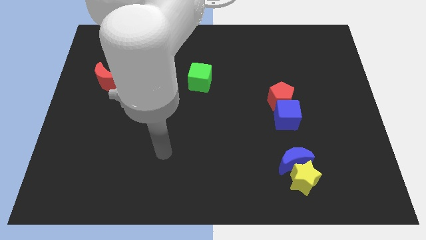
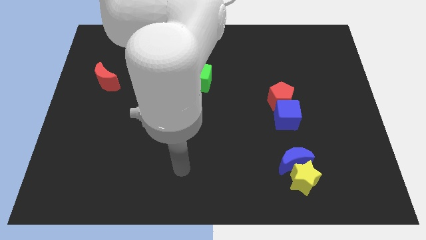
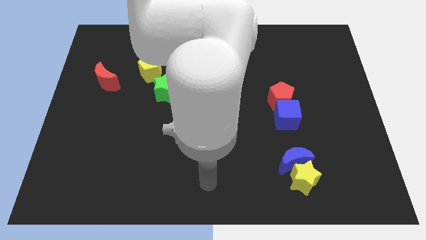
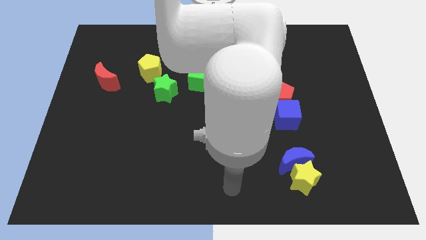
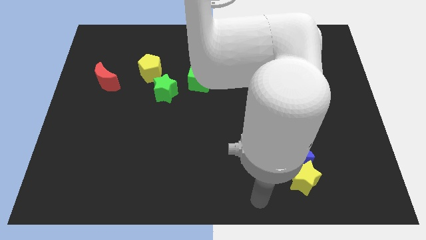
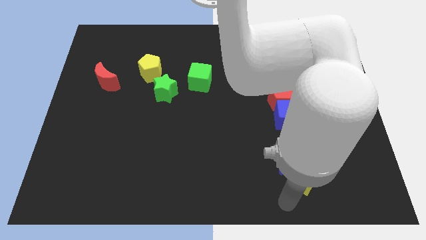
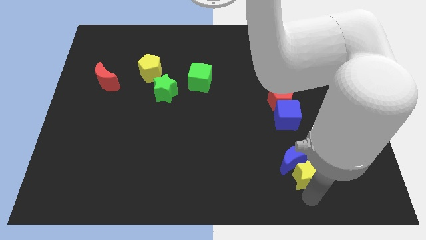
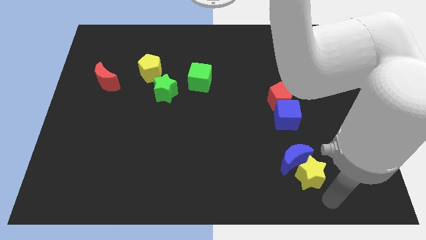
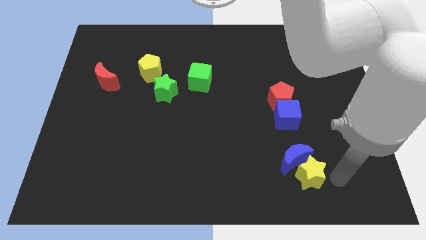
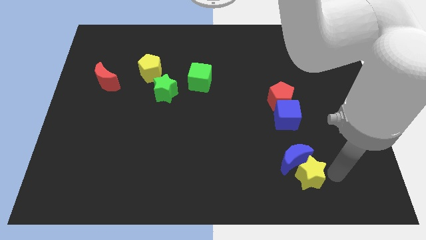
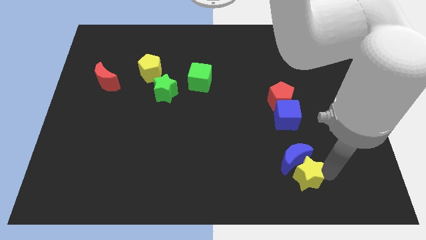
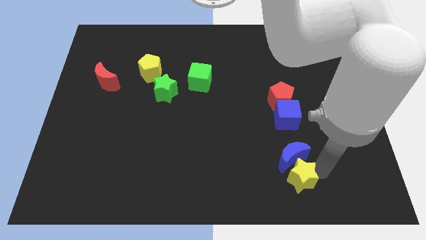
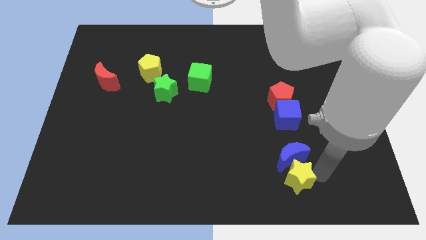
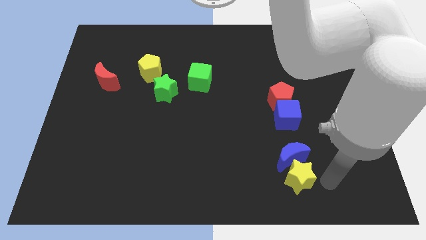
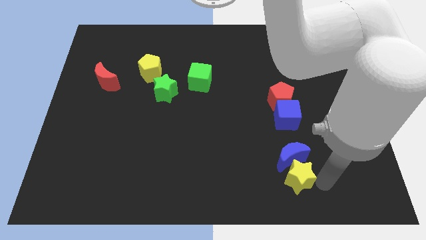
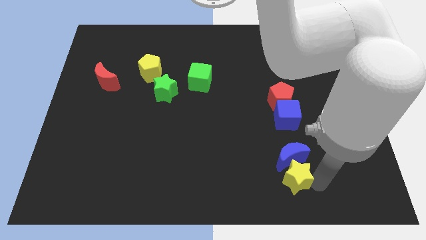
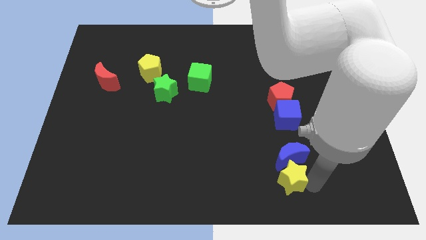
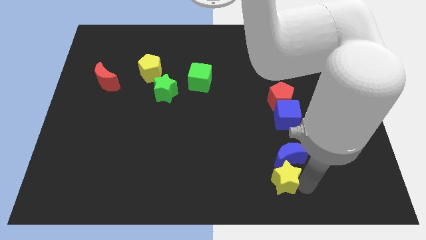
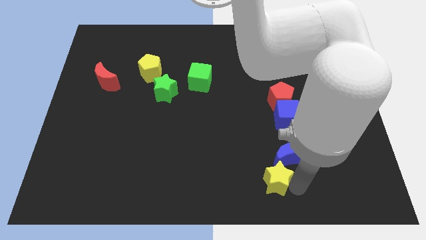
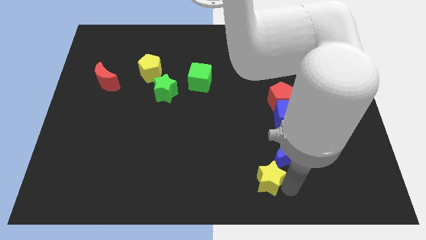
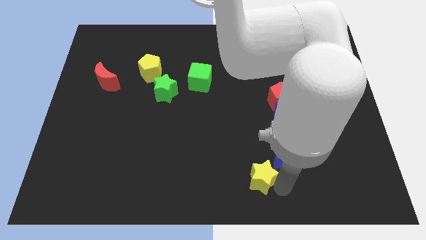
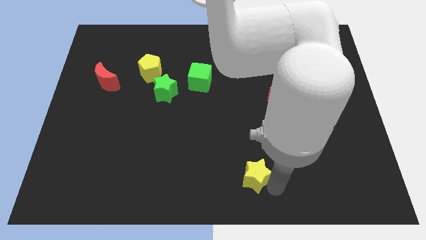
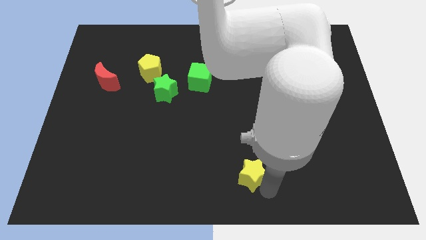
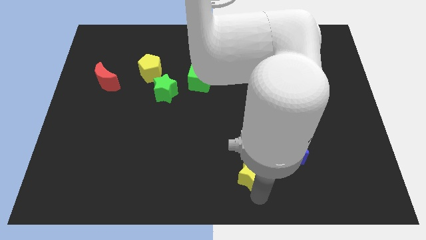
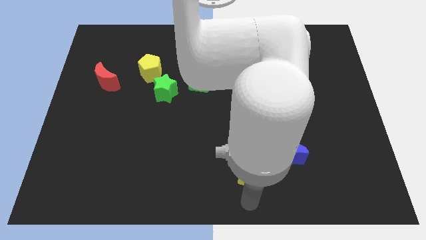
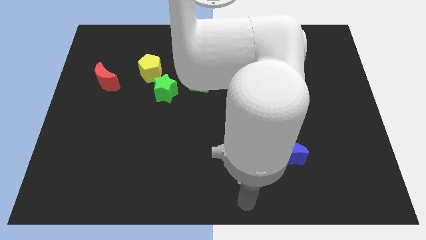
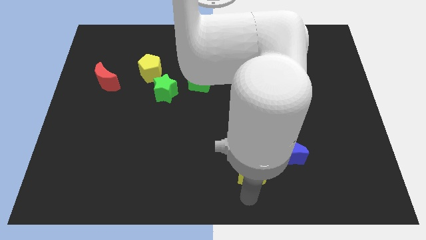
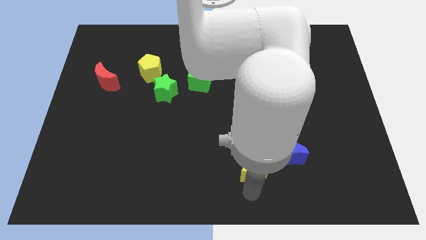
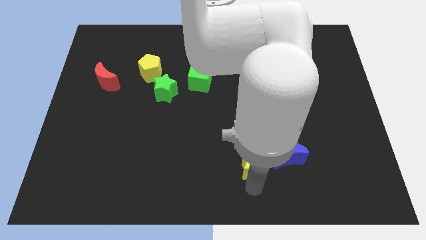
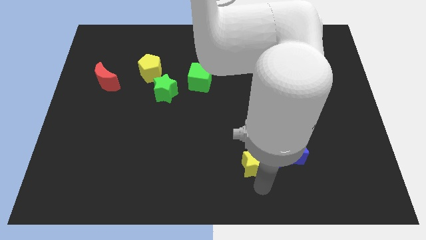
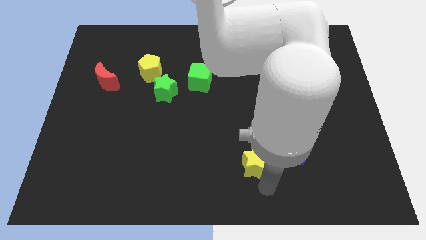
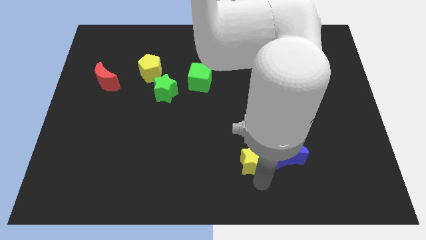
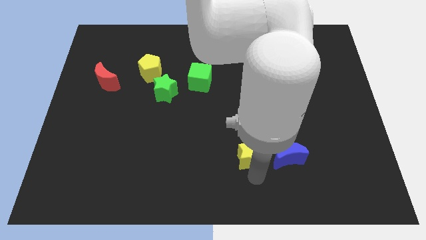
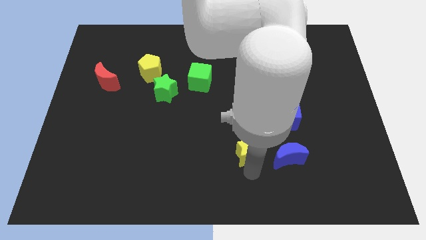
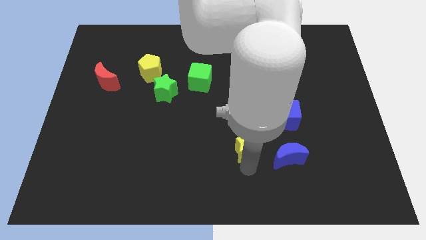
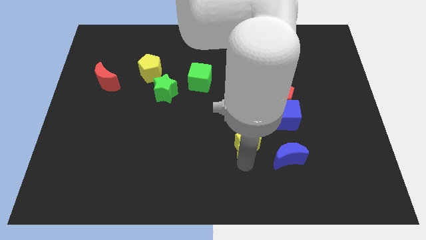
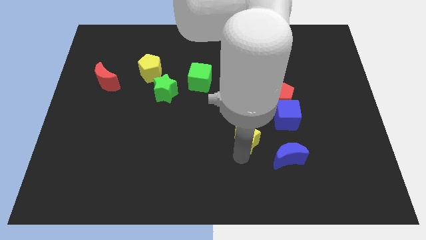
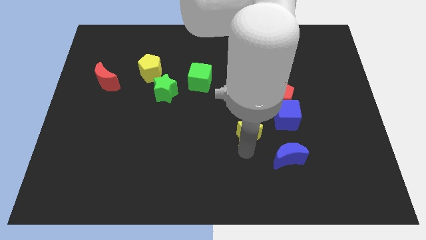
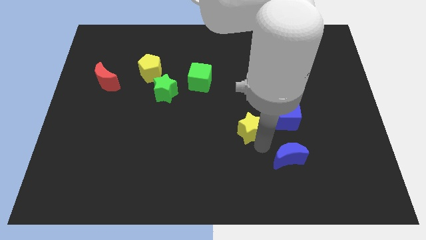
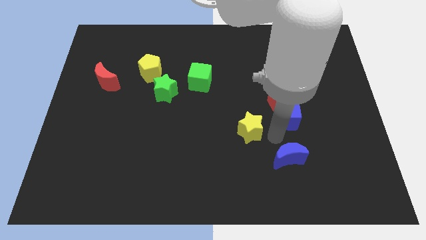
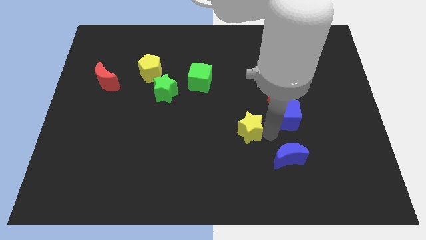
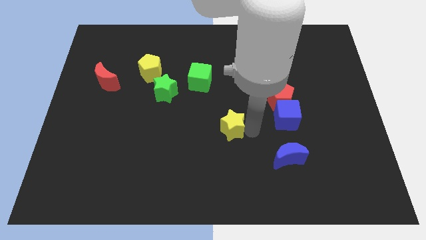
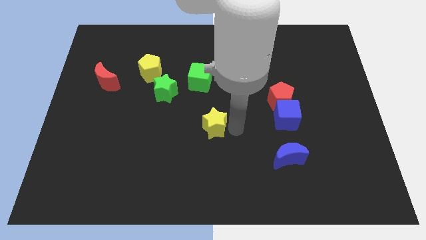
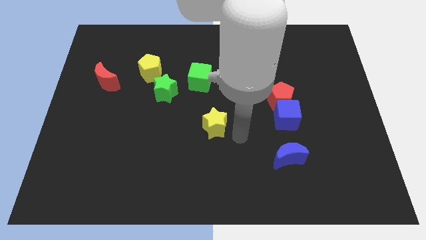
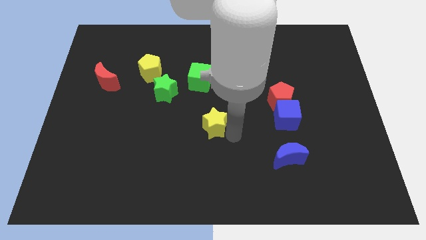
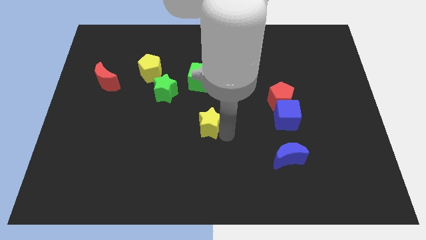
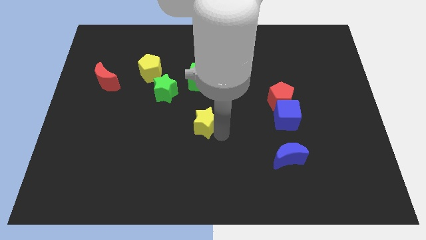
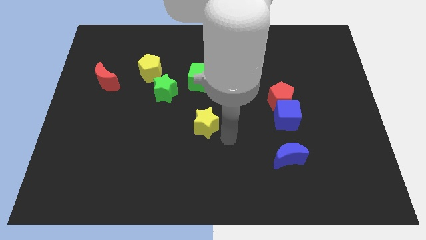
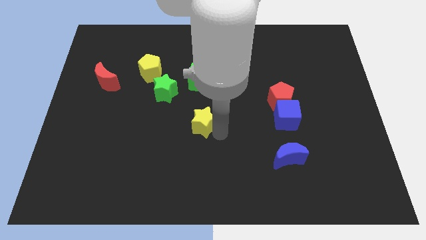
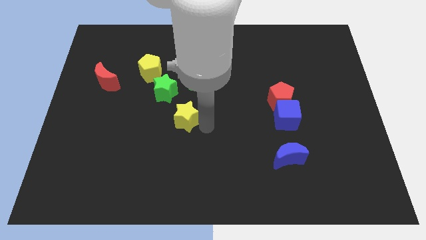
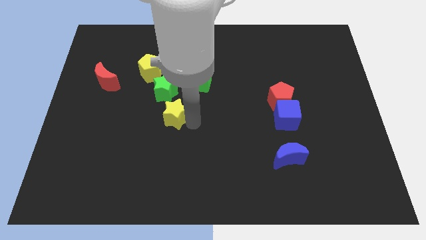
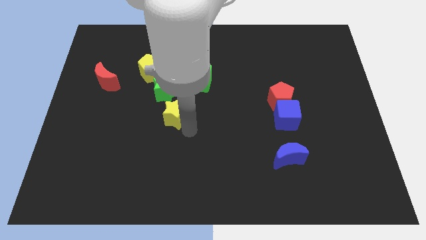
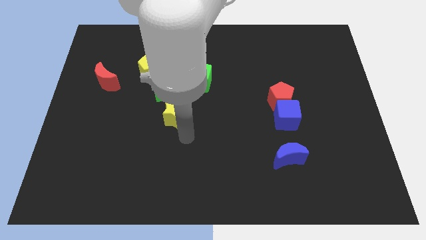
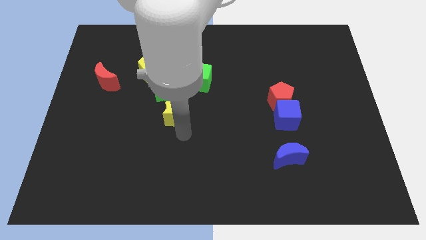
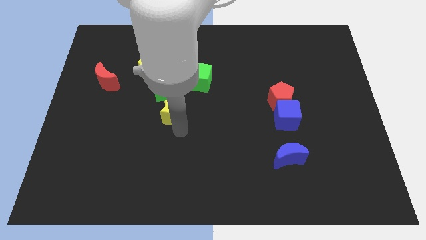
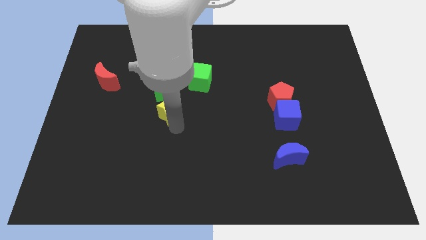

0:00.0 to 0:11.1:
slide the yellow star towards the green star

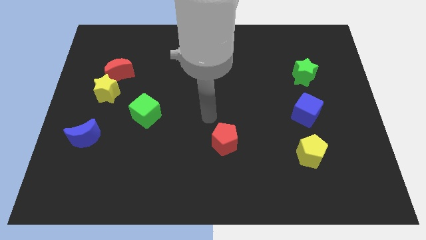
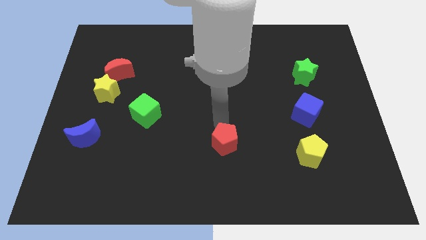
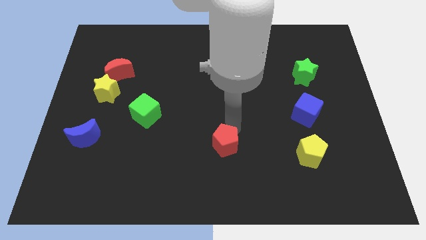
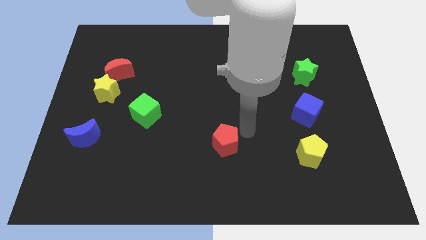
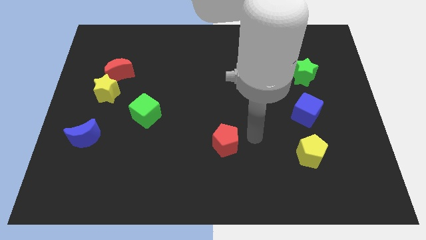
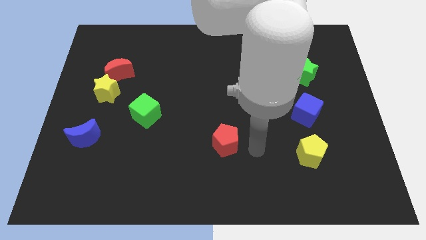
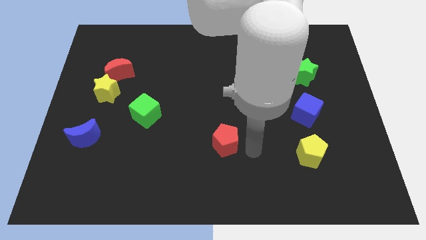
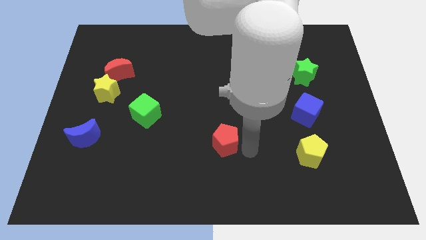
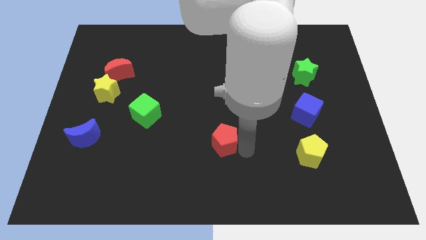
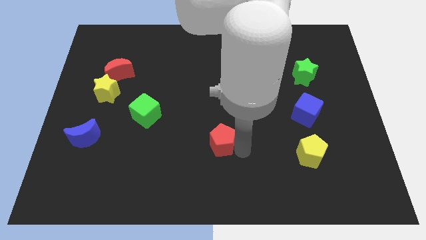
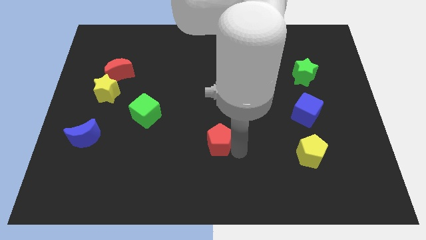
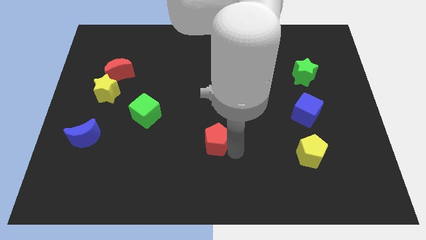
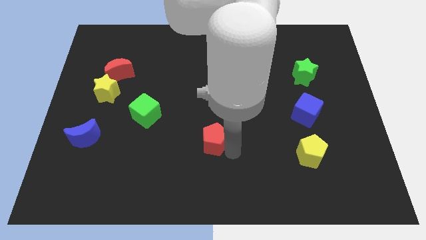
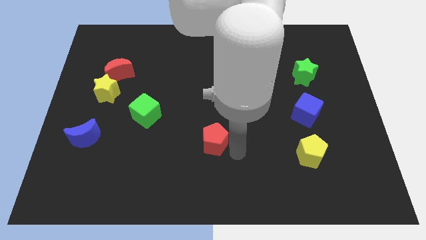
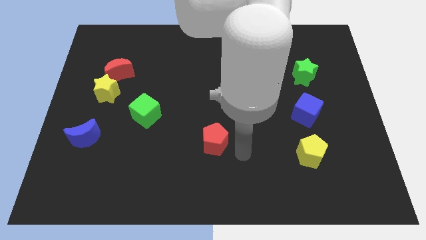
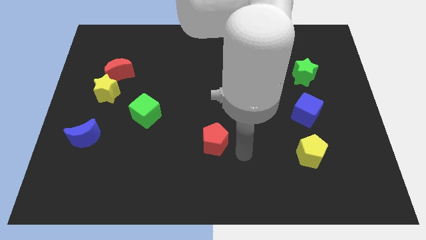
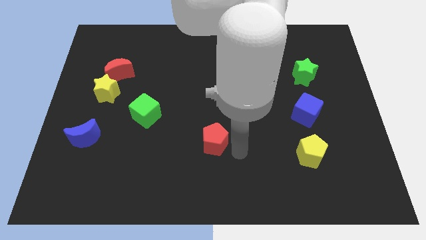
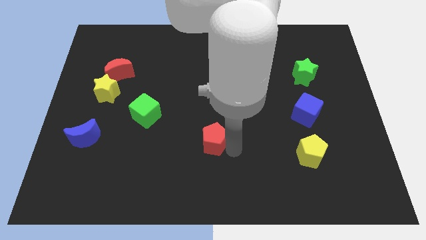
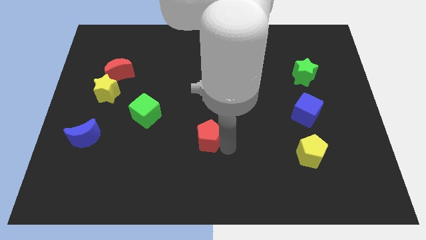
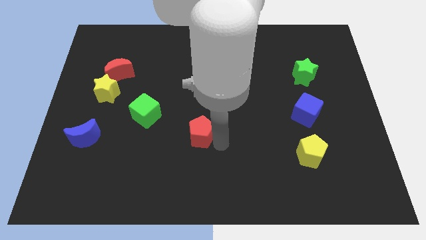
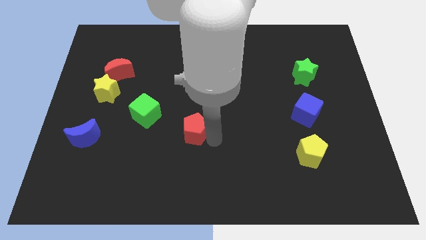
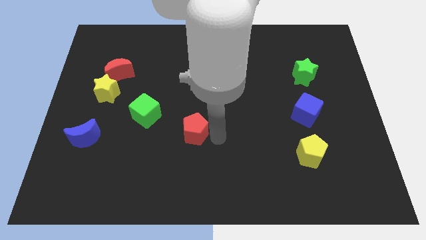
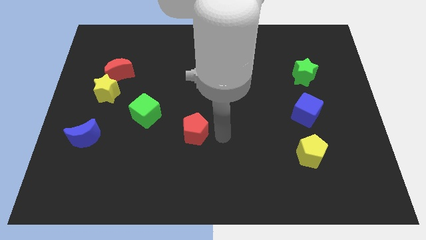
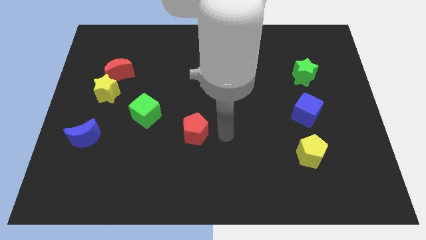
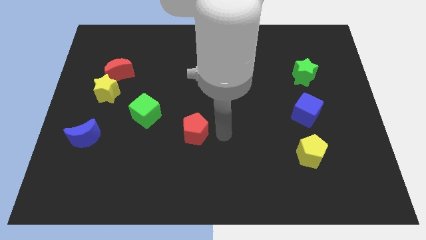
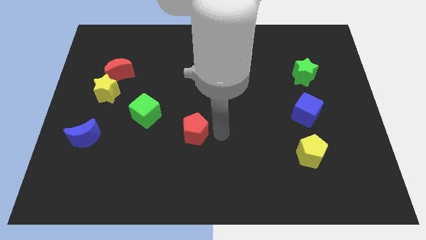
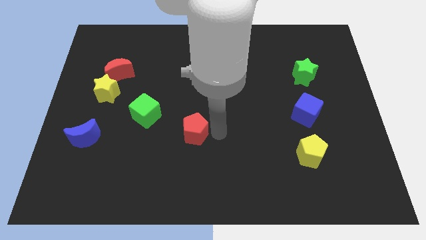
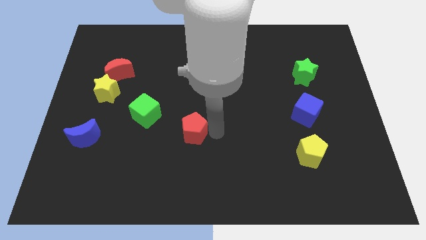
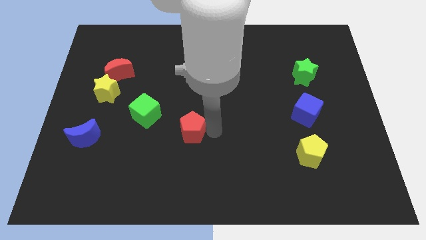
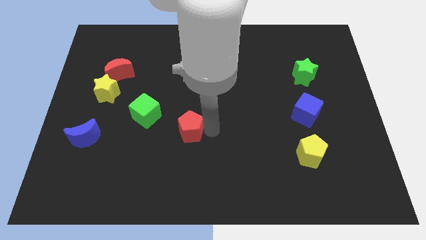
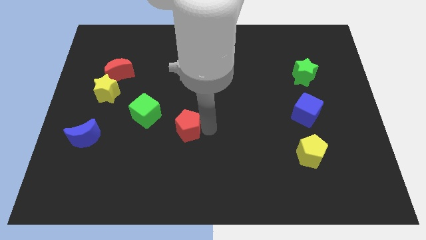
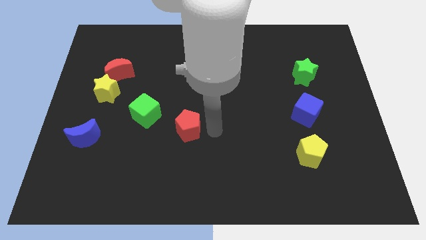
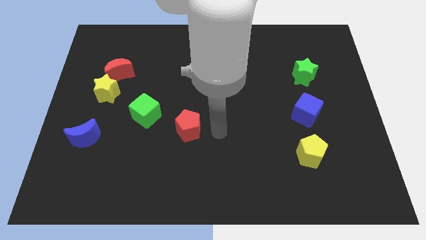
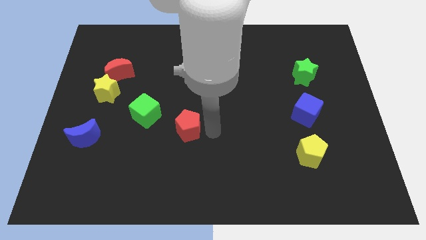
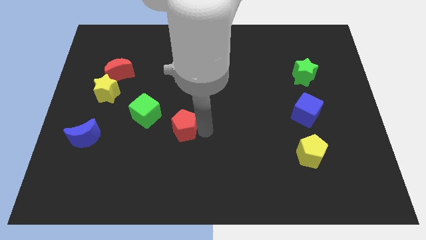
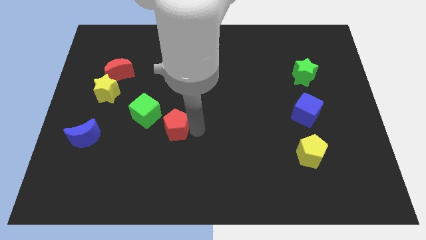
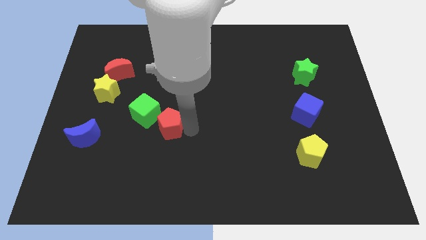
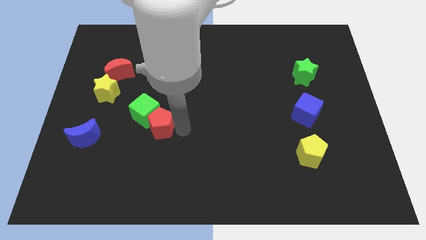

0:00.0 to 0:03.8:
push the red pentagon towards the green cube
